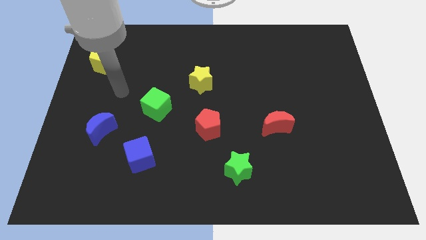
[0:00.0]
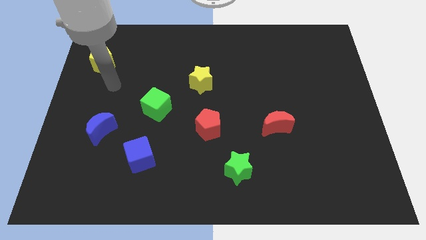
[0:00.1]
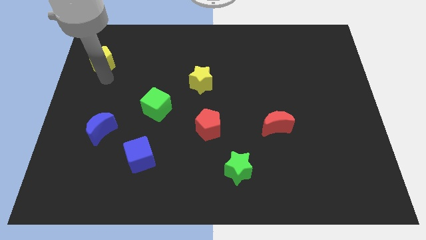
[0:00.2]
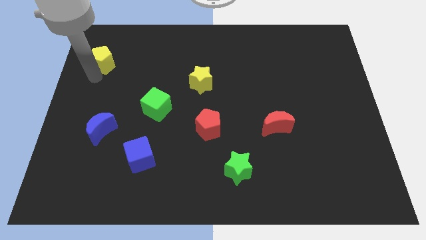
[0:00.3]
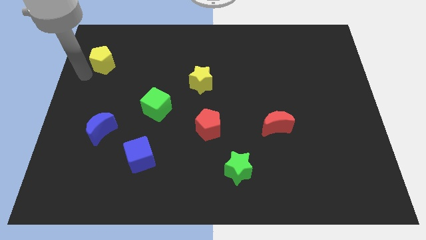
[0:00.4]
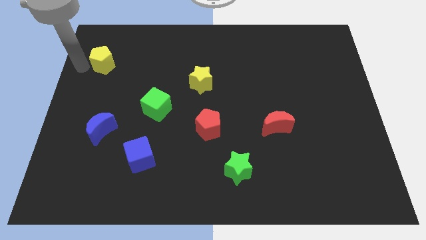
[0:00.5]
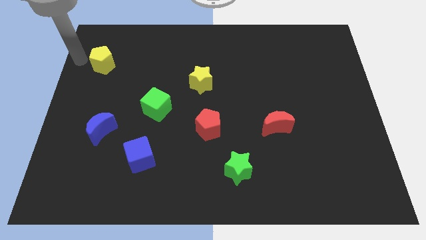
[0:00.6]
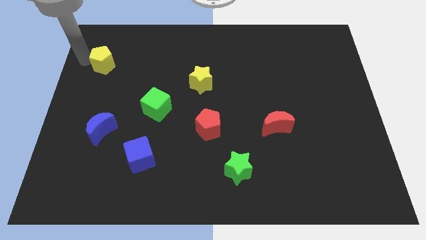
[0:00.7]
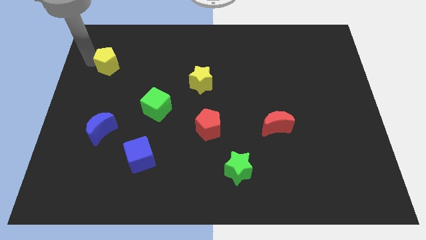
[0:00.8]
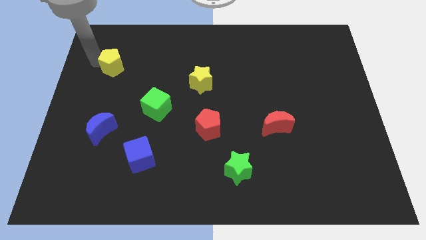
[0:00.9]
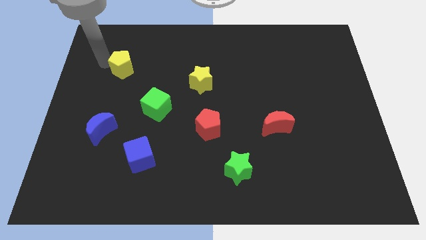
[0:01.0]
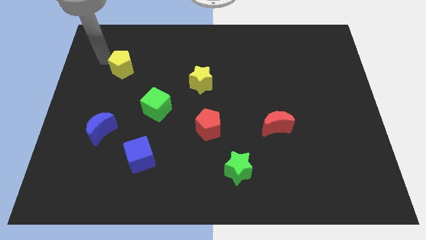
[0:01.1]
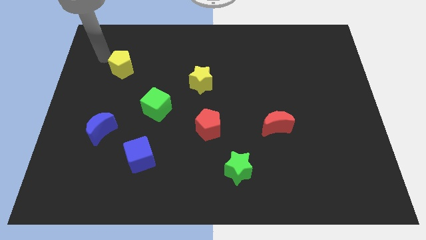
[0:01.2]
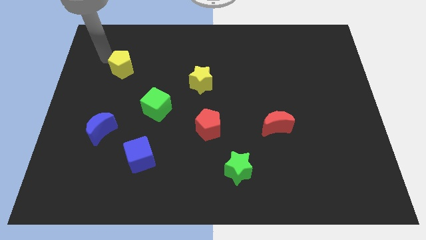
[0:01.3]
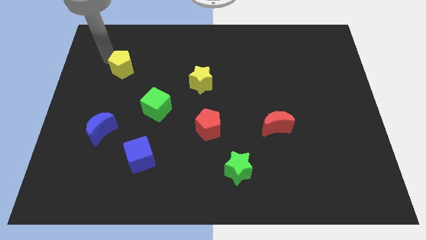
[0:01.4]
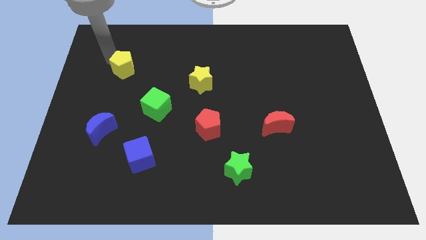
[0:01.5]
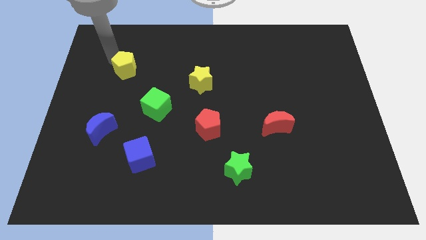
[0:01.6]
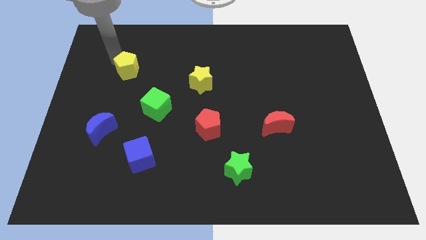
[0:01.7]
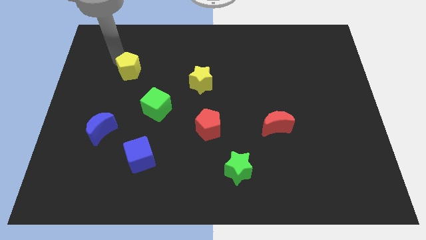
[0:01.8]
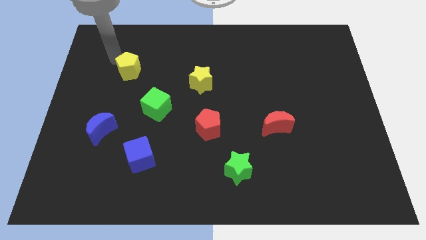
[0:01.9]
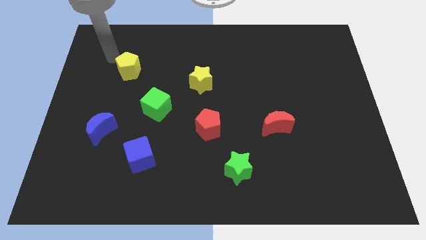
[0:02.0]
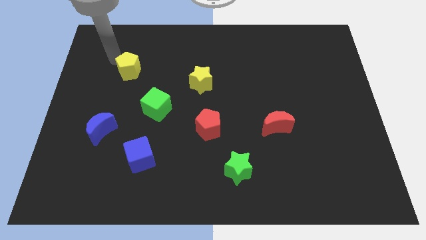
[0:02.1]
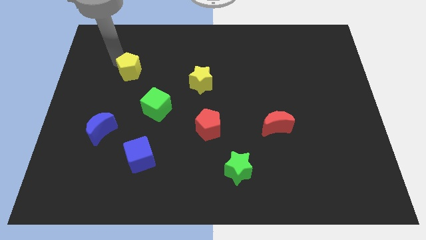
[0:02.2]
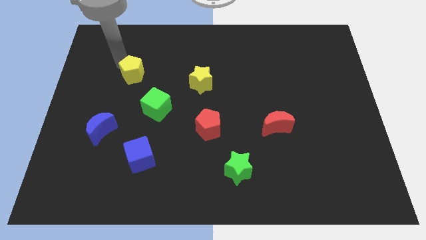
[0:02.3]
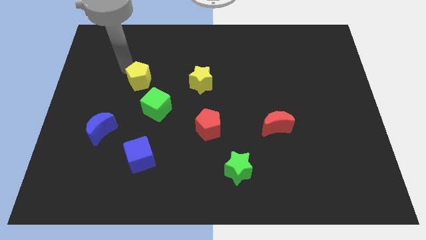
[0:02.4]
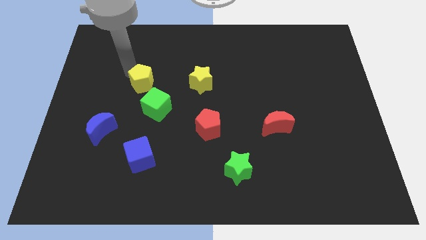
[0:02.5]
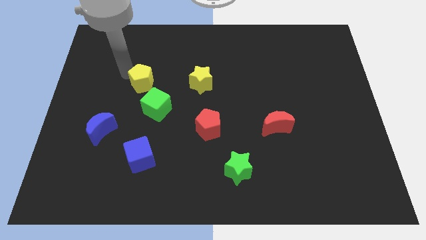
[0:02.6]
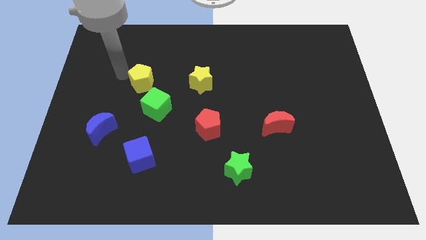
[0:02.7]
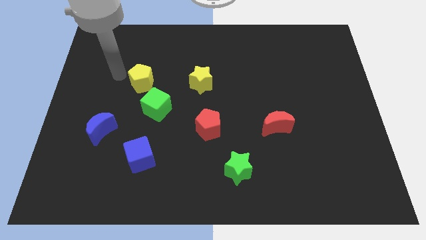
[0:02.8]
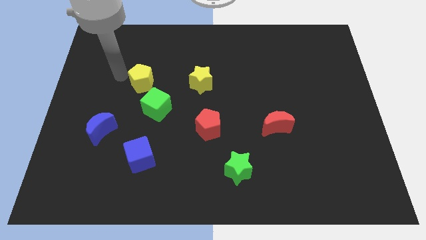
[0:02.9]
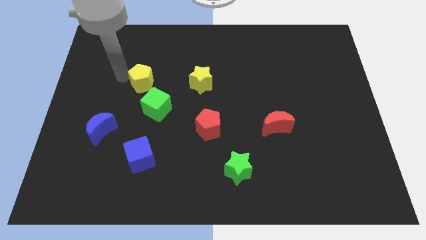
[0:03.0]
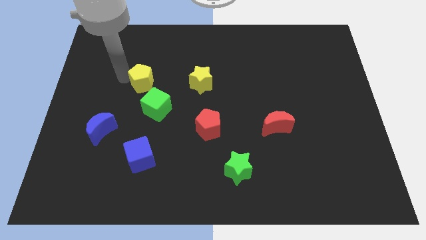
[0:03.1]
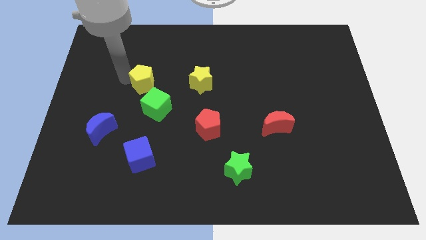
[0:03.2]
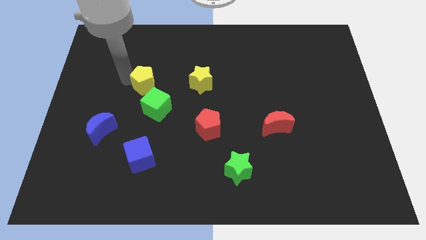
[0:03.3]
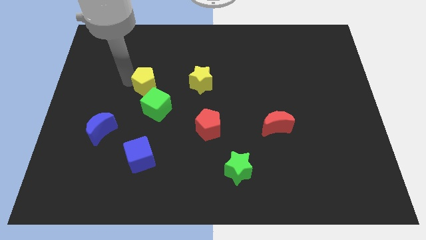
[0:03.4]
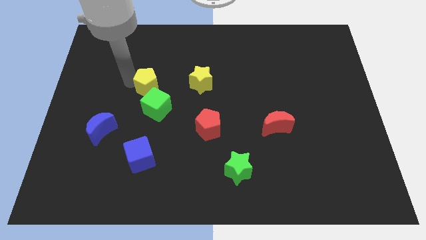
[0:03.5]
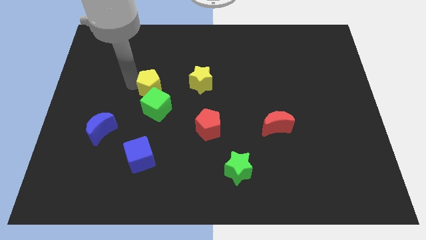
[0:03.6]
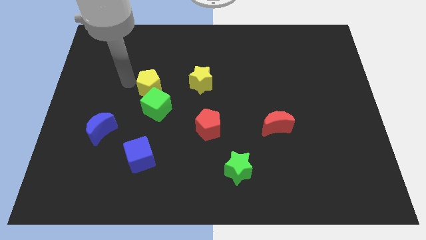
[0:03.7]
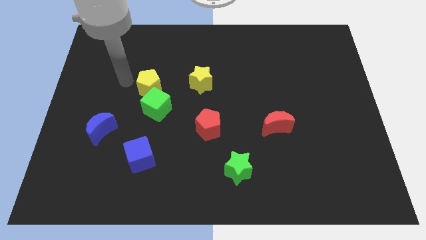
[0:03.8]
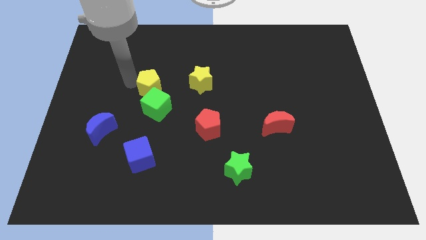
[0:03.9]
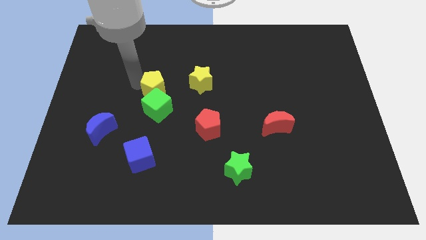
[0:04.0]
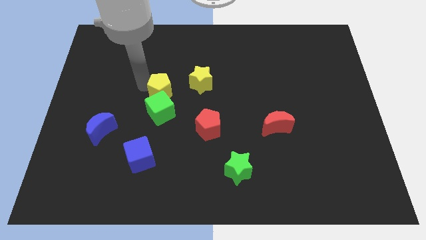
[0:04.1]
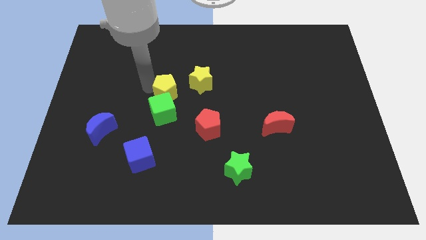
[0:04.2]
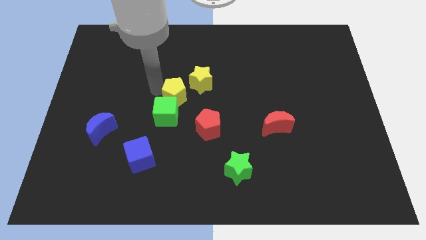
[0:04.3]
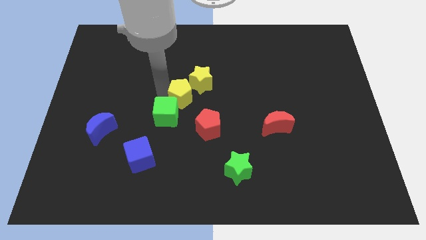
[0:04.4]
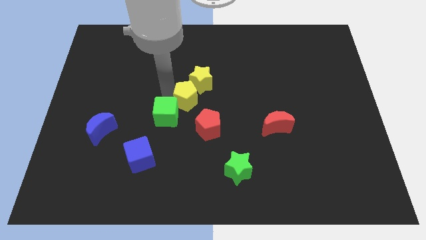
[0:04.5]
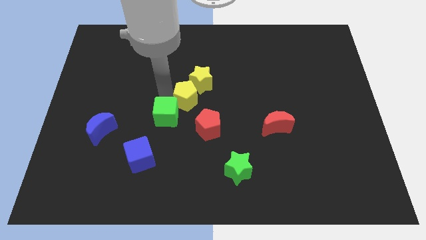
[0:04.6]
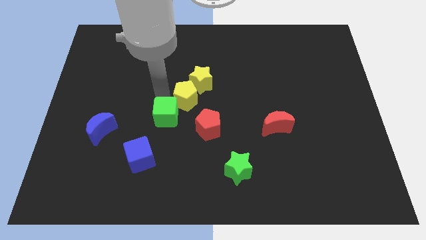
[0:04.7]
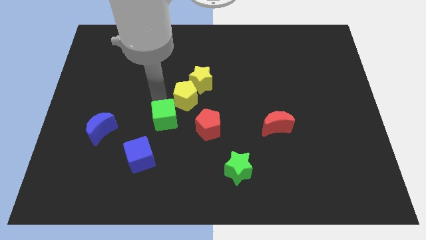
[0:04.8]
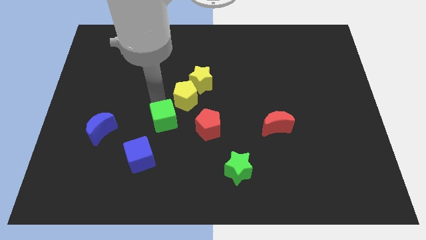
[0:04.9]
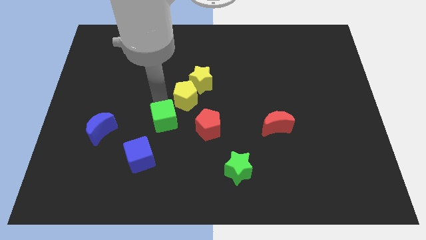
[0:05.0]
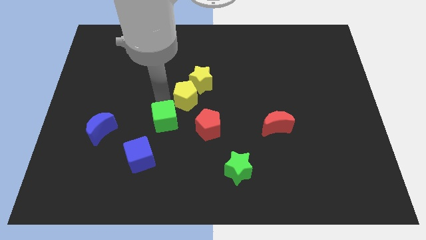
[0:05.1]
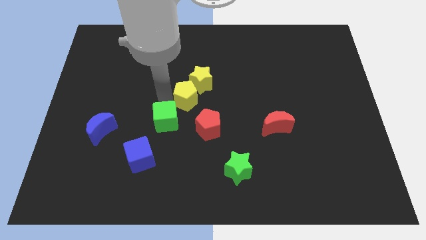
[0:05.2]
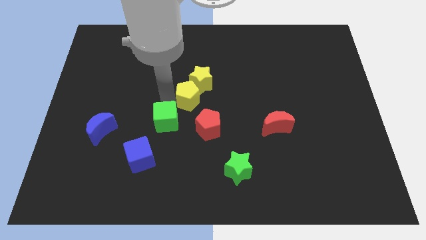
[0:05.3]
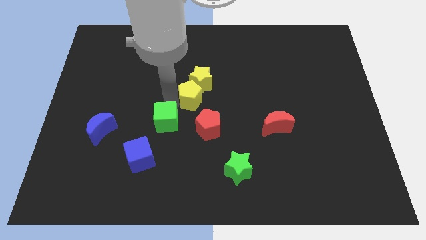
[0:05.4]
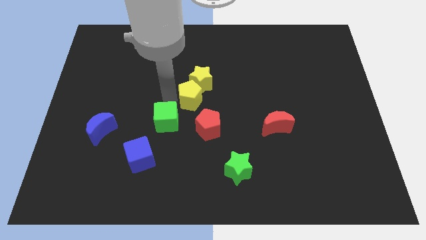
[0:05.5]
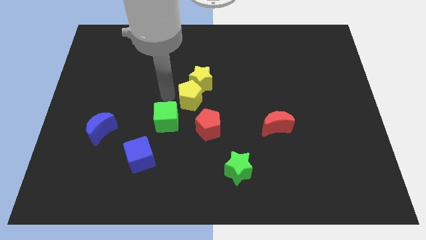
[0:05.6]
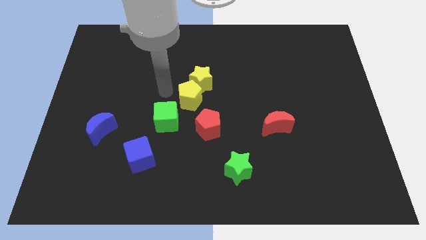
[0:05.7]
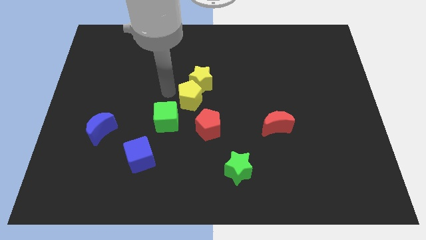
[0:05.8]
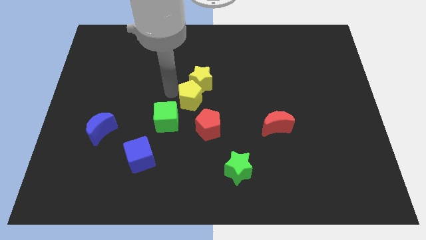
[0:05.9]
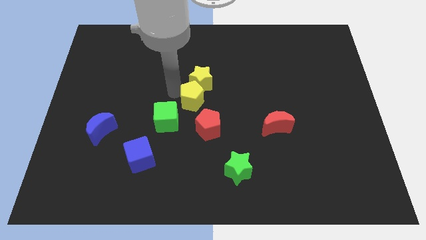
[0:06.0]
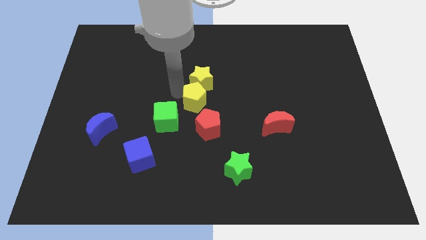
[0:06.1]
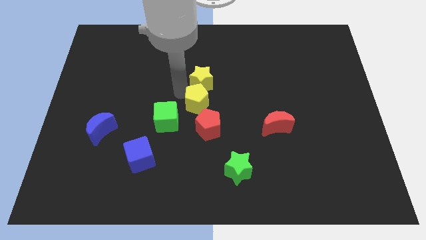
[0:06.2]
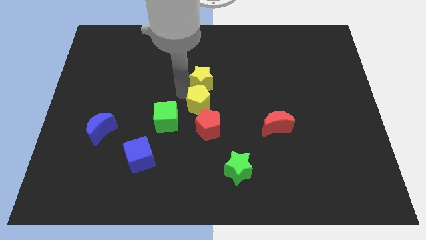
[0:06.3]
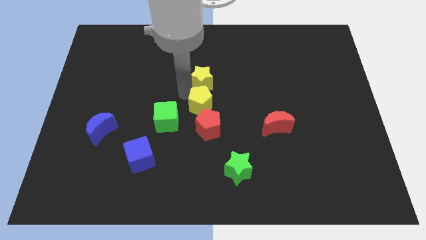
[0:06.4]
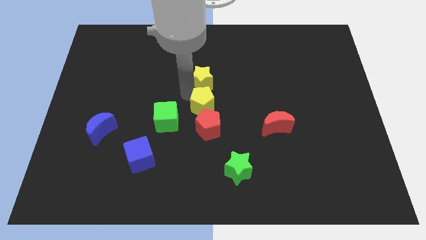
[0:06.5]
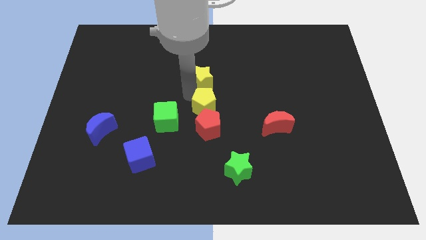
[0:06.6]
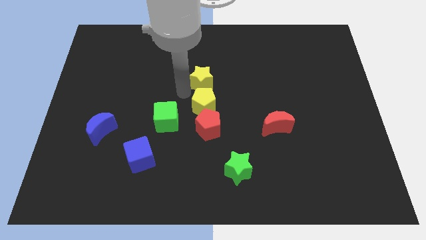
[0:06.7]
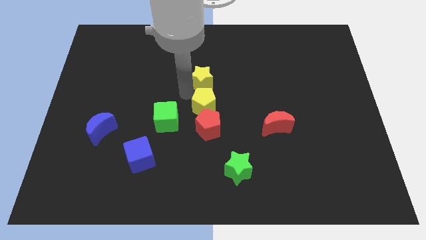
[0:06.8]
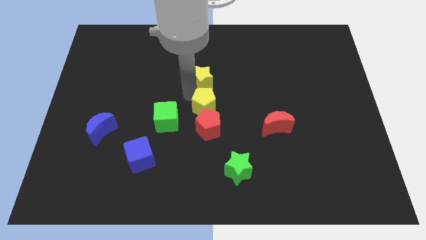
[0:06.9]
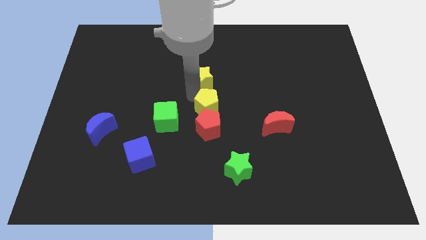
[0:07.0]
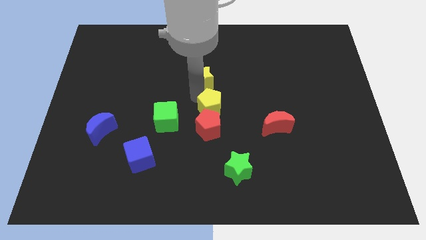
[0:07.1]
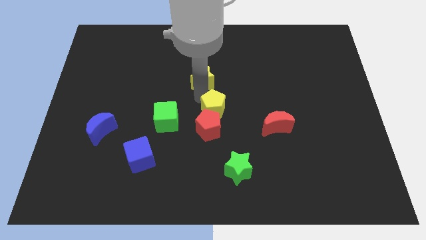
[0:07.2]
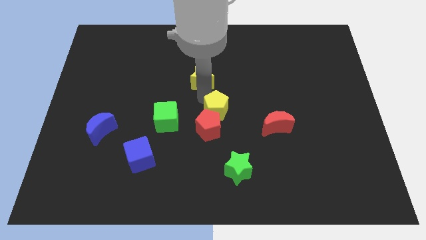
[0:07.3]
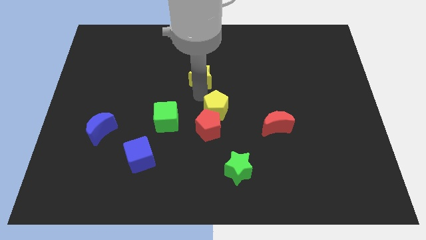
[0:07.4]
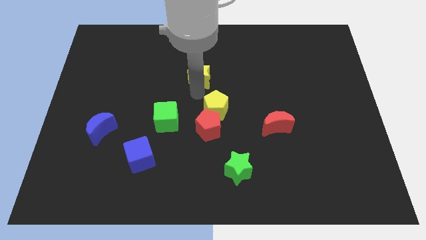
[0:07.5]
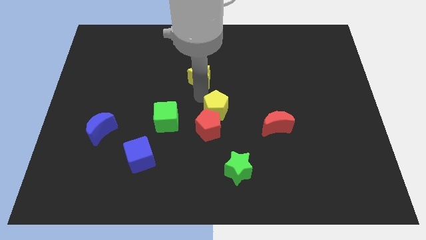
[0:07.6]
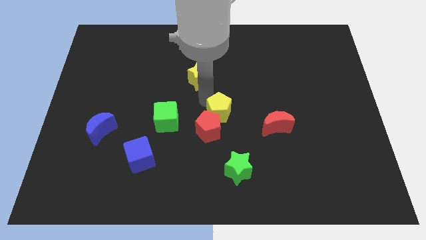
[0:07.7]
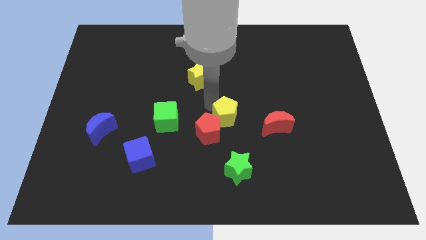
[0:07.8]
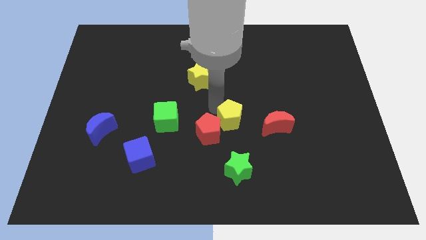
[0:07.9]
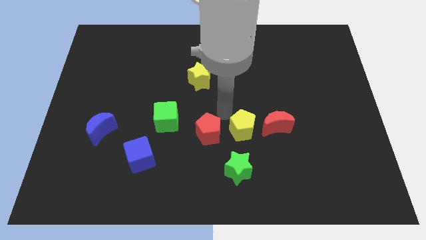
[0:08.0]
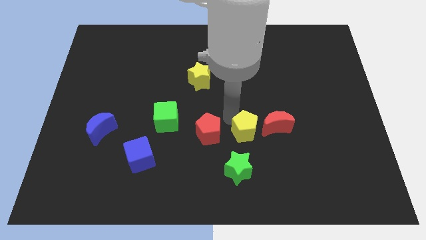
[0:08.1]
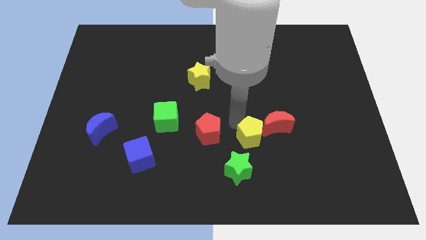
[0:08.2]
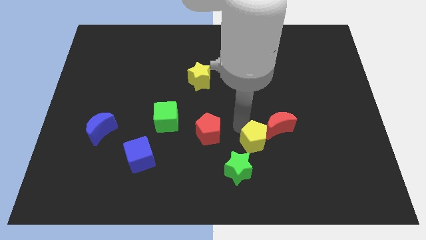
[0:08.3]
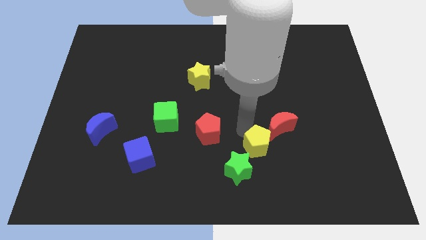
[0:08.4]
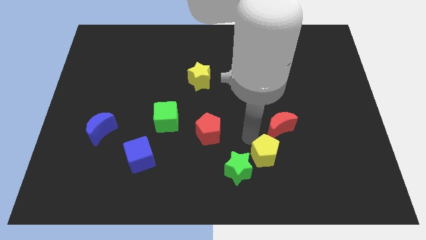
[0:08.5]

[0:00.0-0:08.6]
slide the yellow pentagon to the bottom side of the red moon
